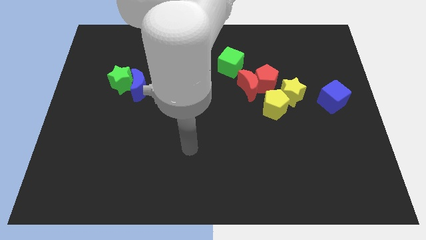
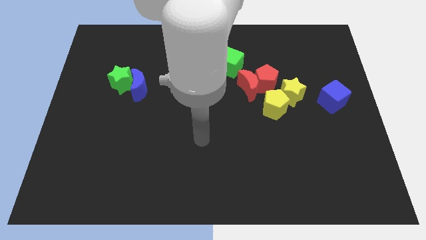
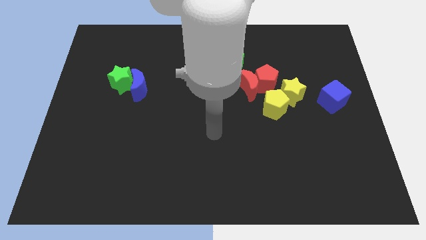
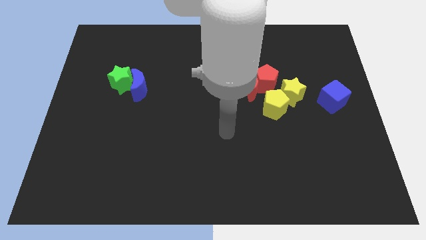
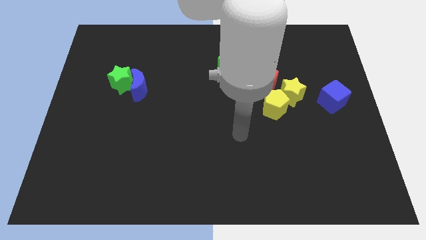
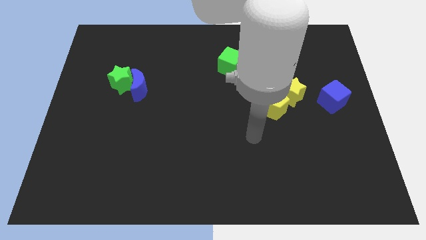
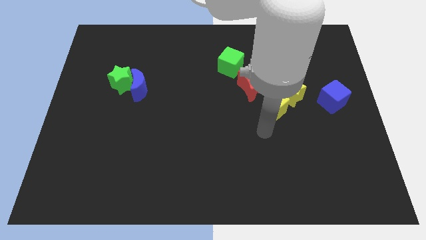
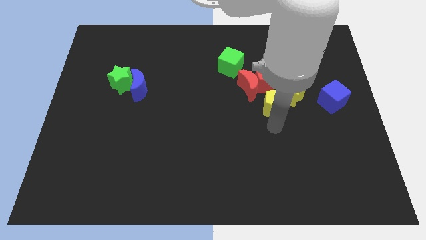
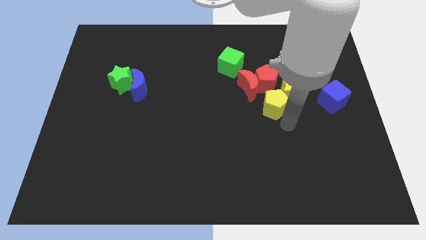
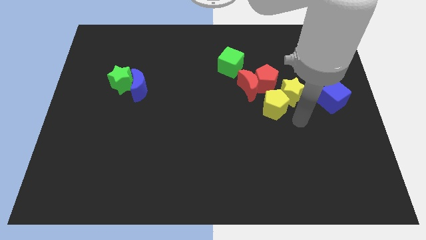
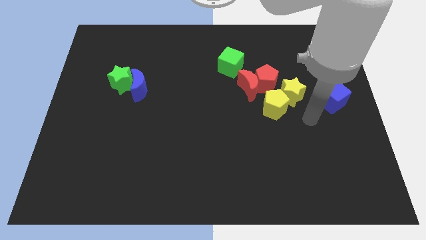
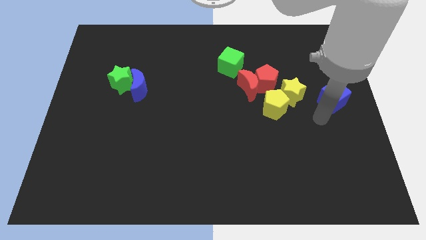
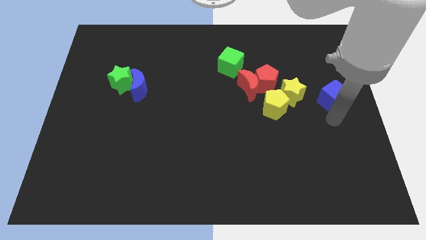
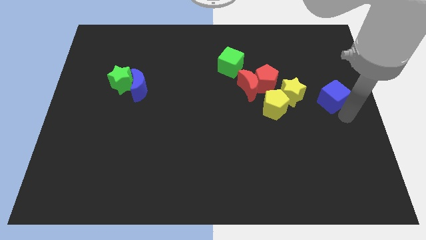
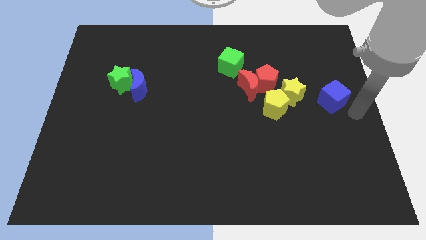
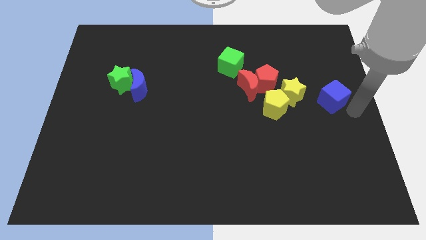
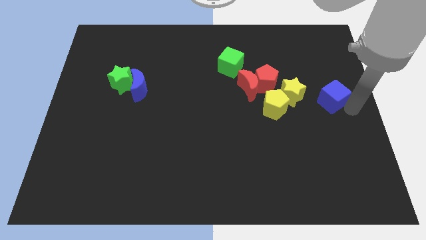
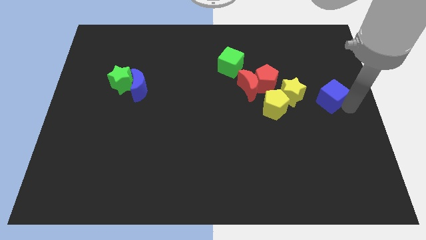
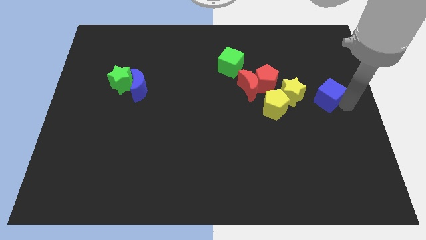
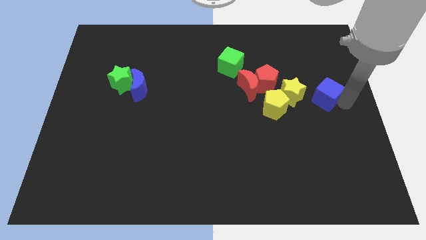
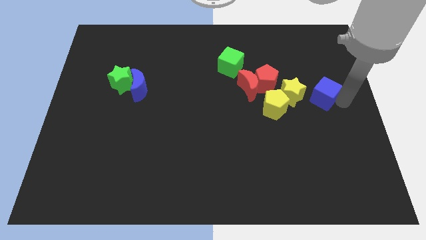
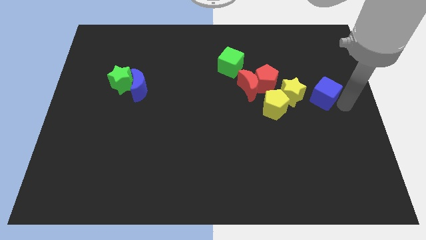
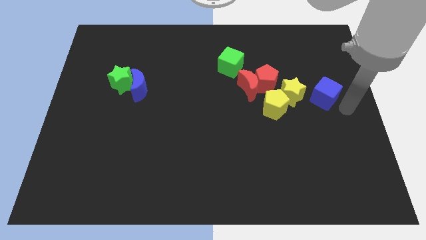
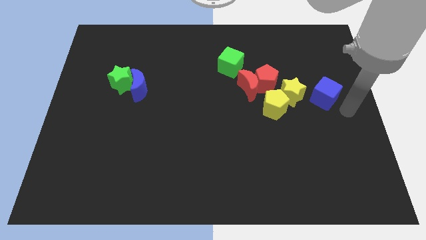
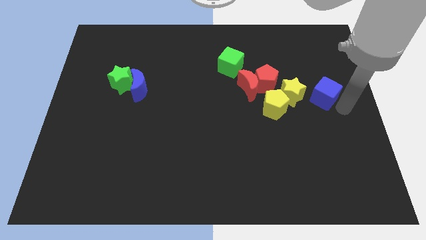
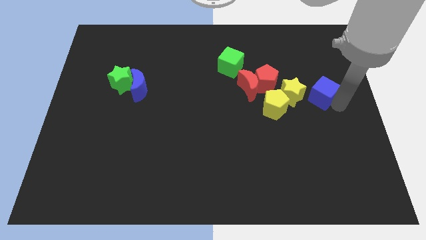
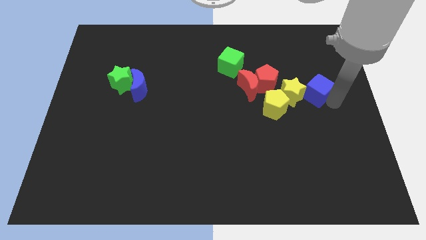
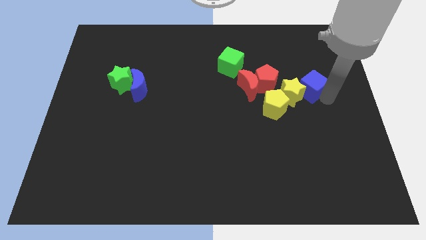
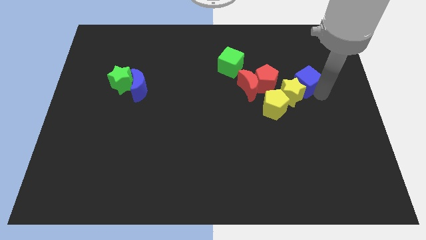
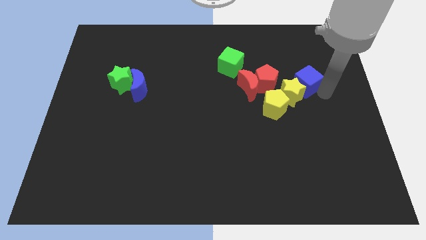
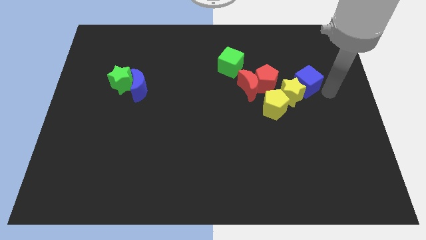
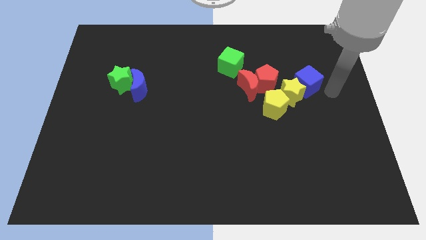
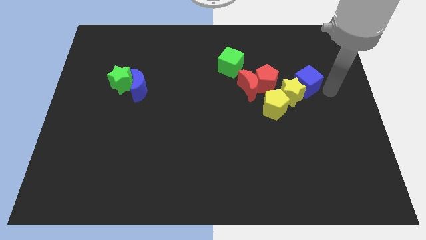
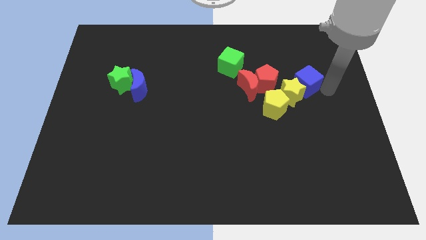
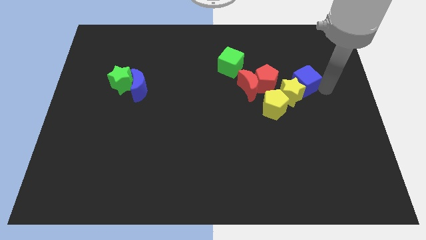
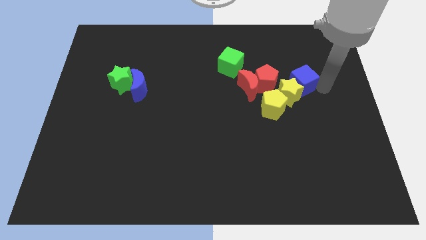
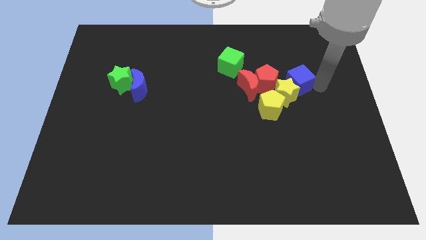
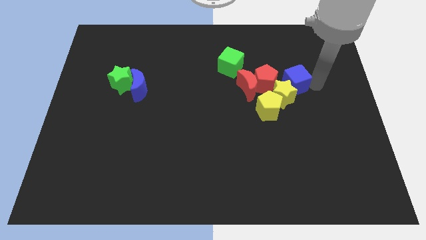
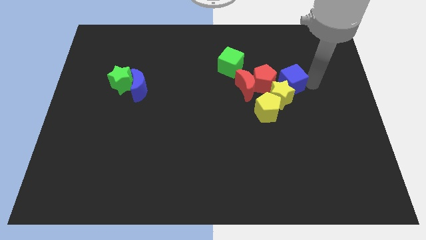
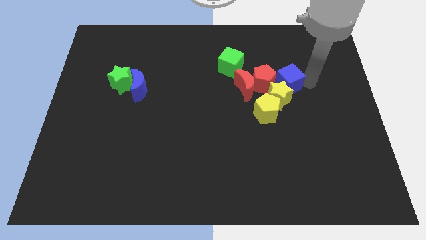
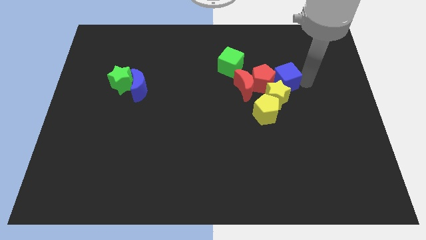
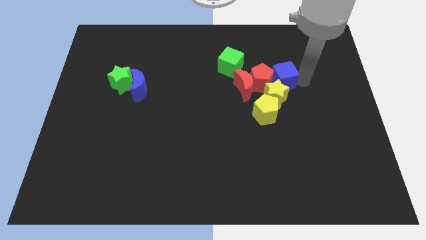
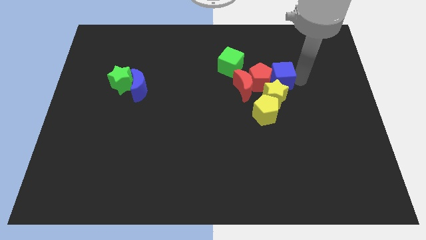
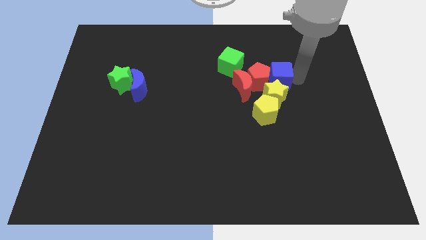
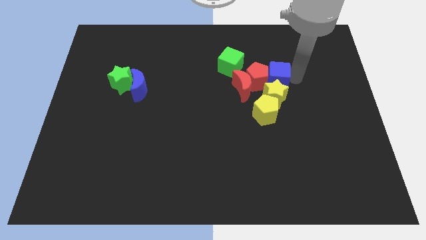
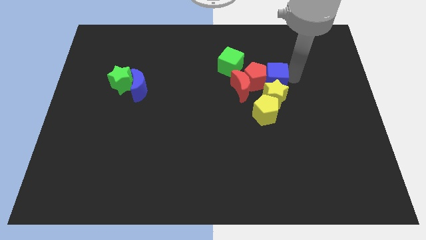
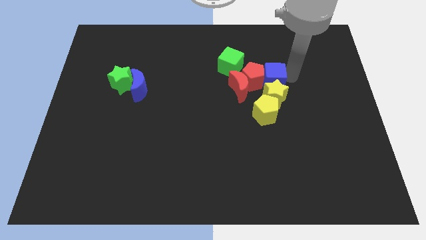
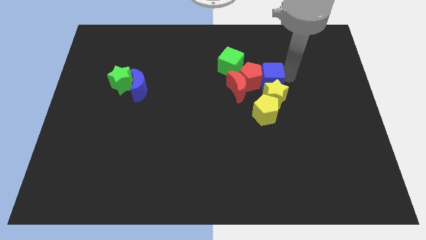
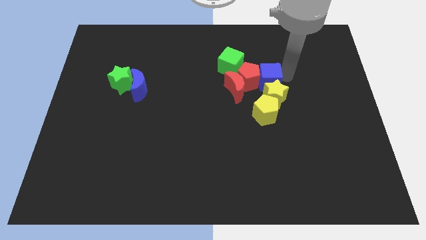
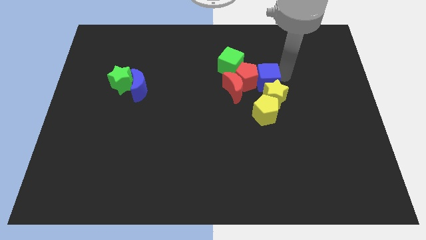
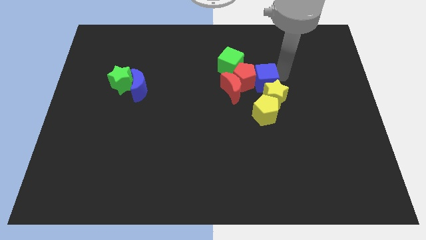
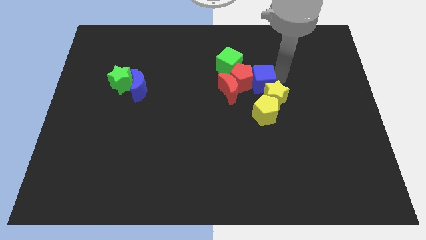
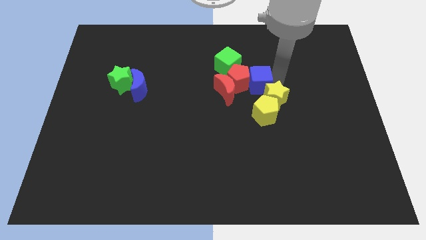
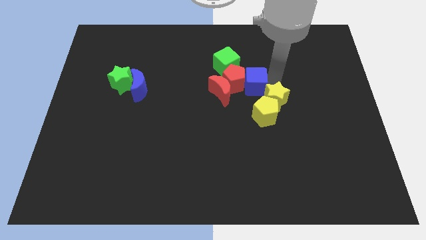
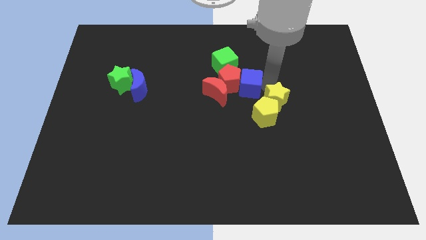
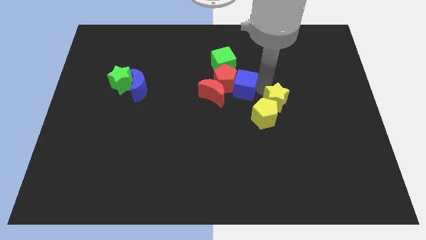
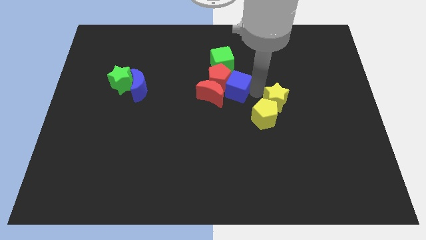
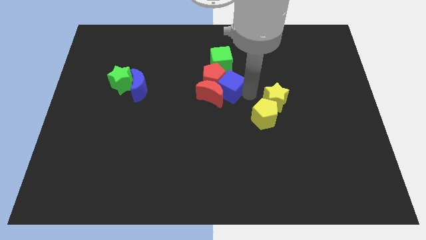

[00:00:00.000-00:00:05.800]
put the blue cube to the red moon

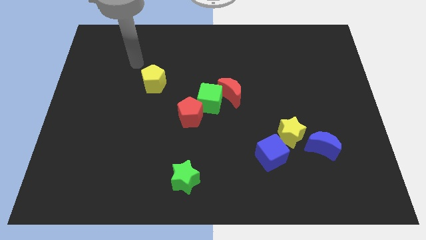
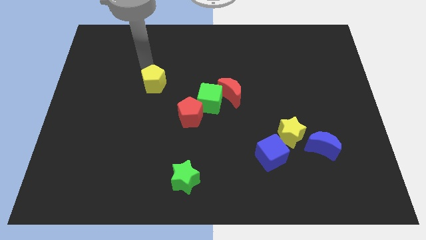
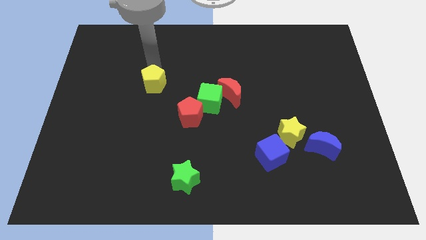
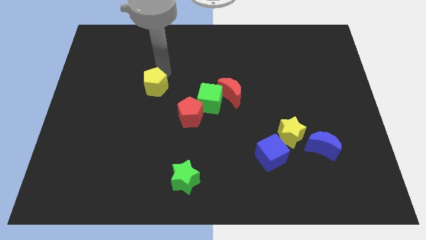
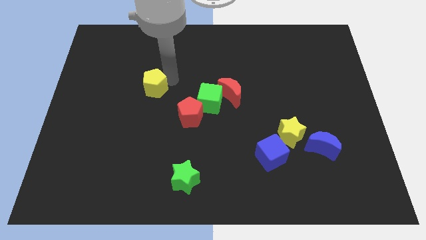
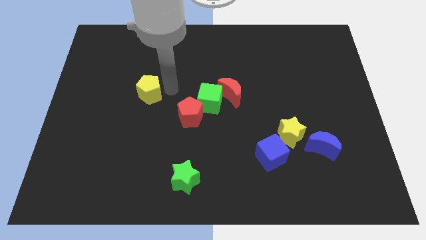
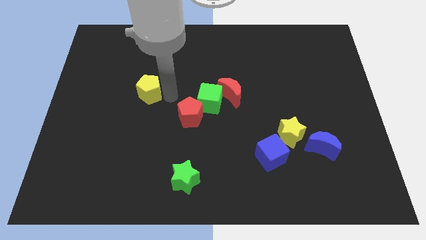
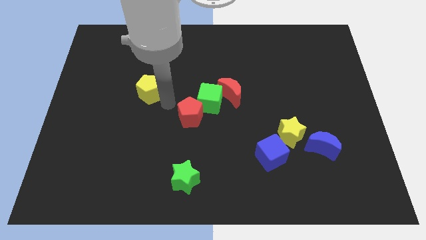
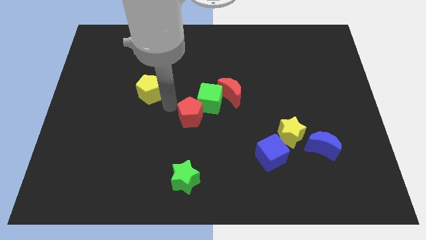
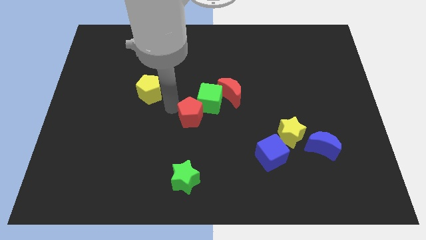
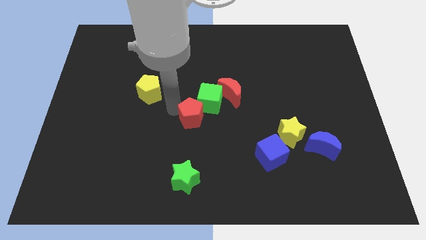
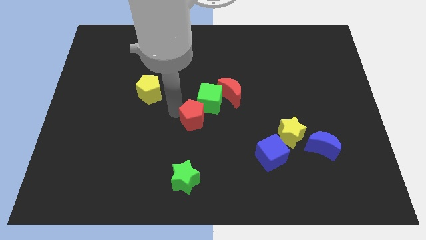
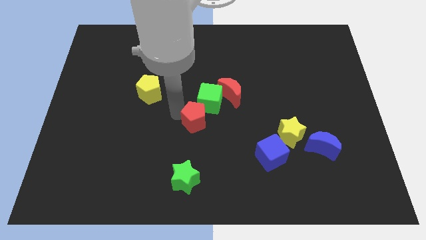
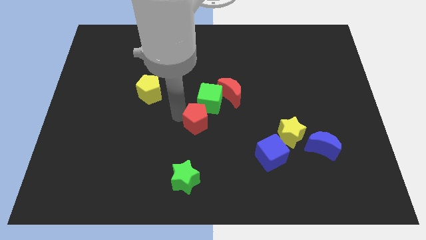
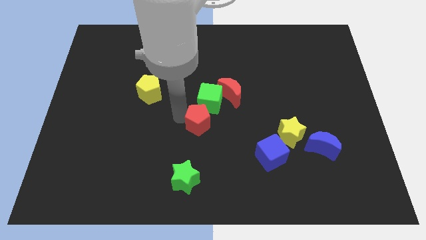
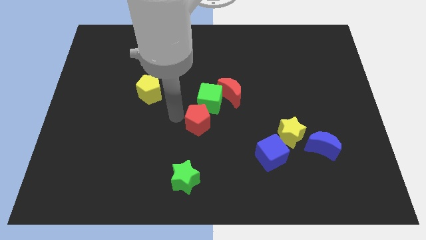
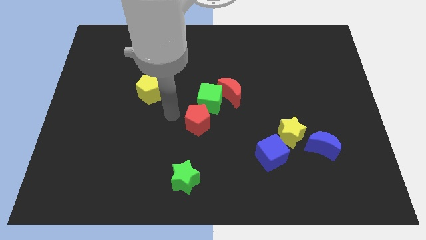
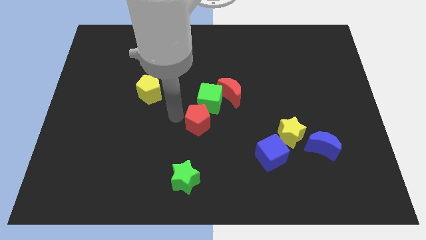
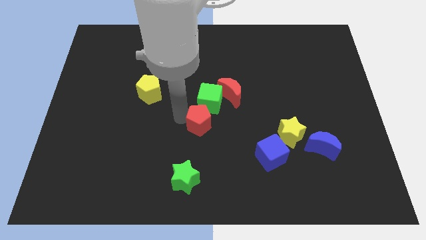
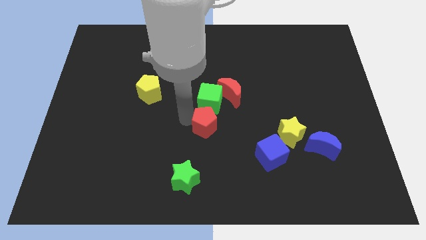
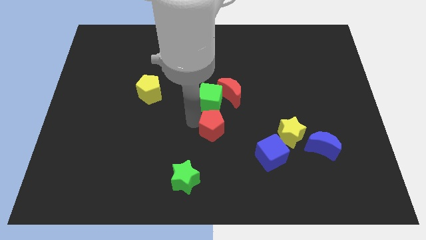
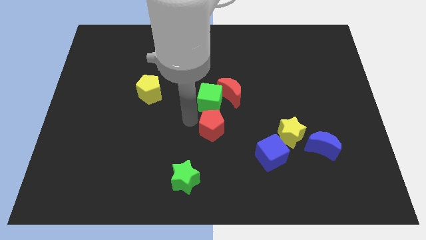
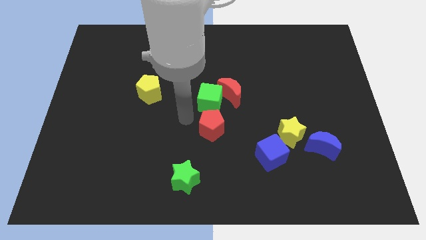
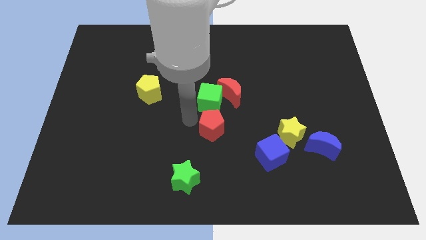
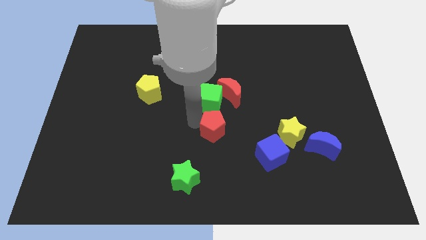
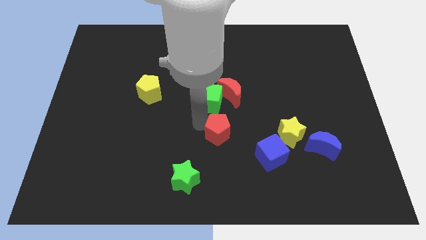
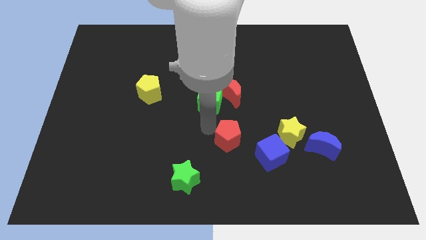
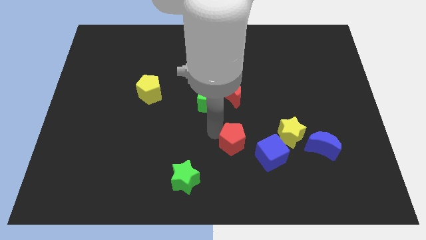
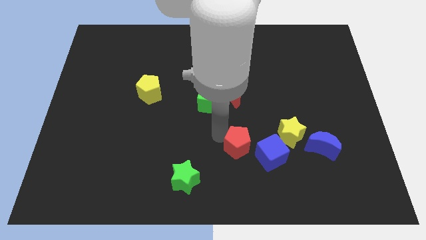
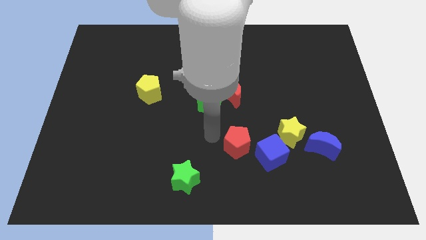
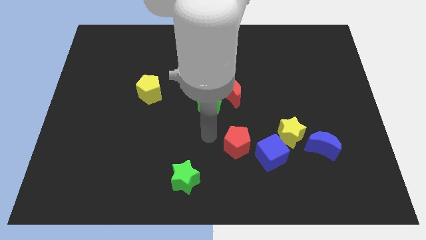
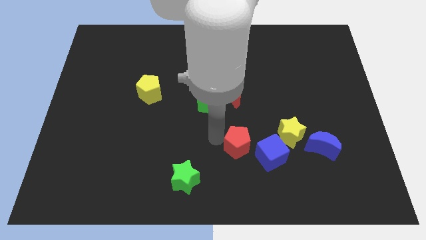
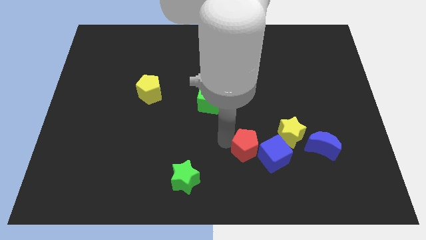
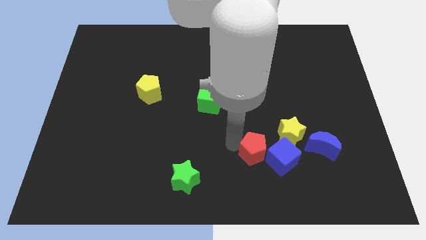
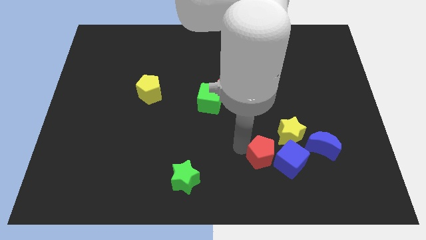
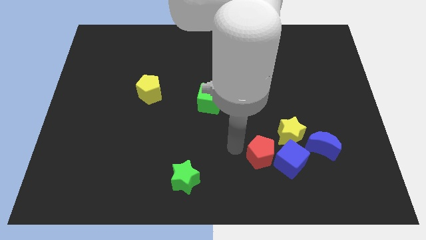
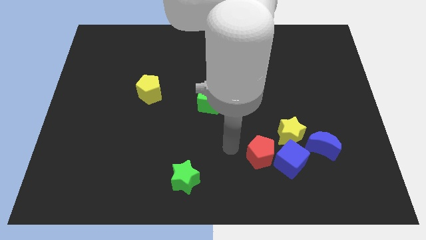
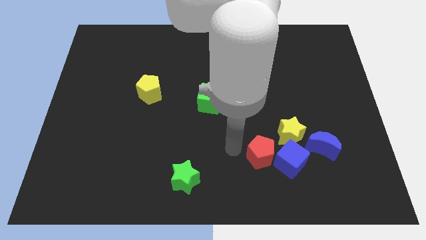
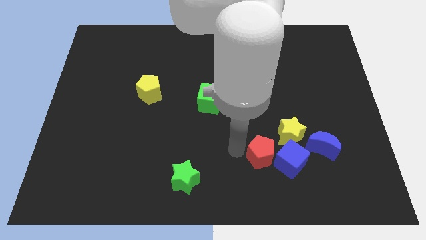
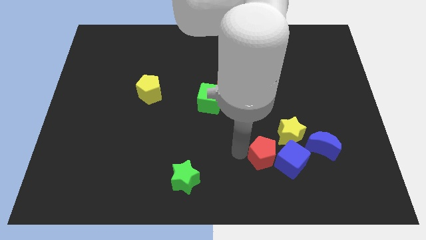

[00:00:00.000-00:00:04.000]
move the red pentagon towards the blue cube
